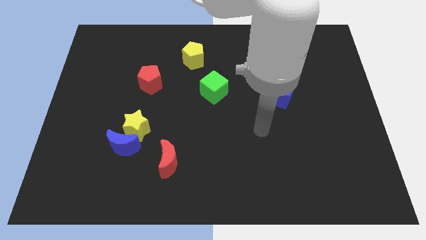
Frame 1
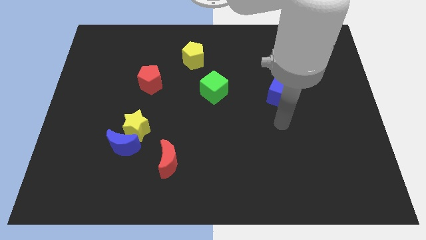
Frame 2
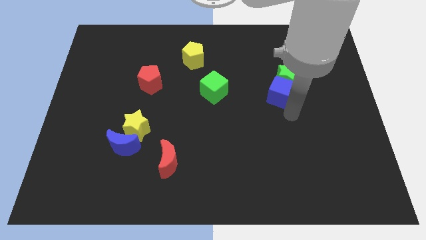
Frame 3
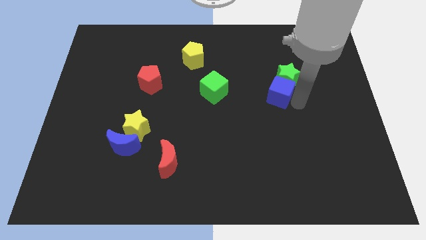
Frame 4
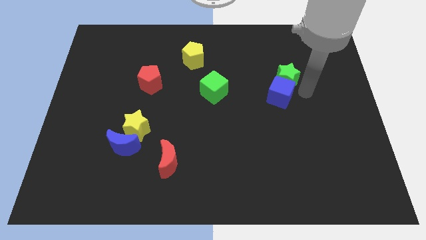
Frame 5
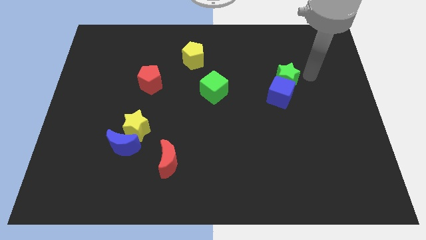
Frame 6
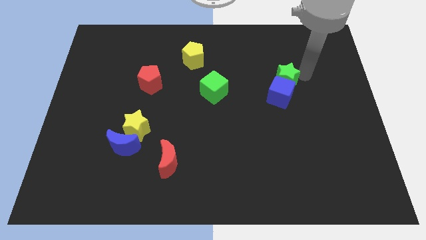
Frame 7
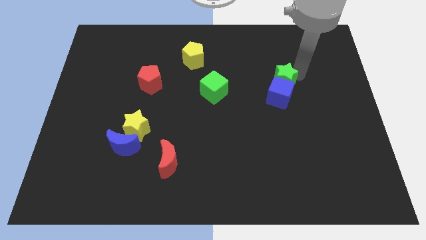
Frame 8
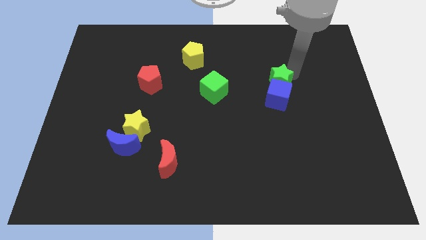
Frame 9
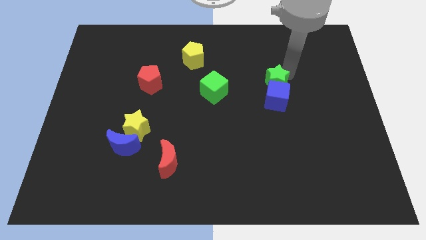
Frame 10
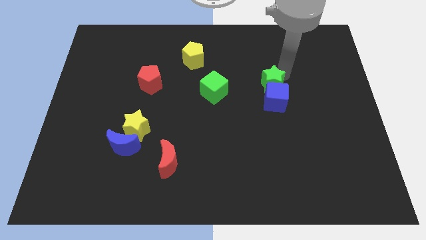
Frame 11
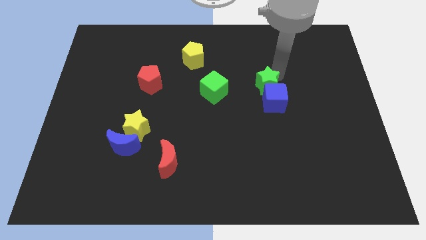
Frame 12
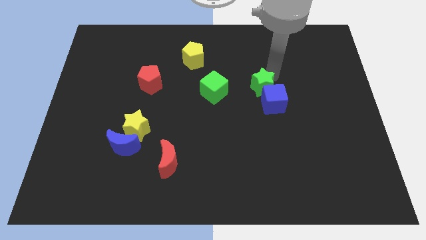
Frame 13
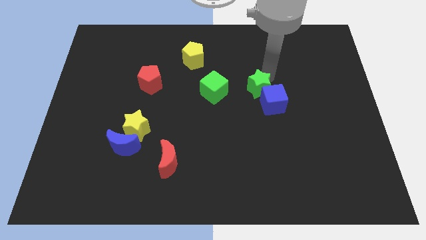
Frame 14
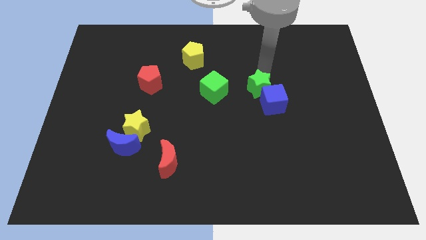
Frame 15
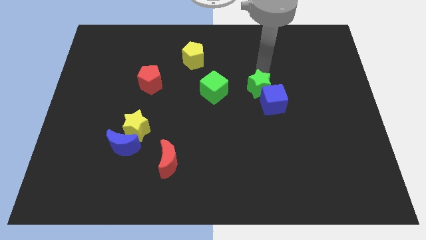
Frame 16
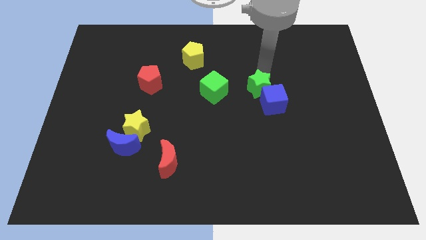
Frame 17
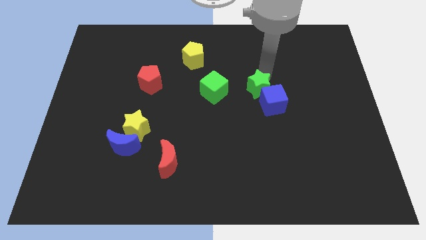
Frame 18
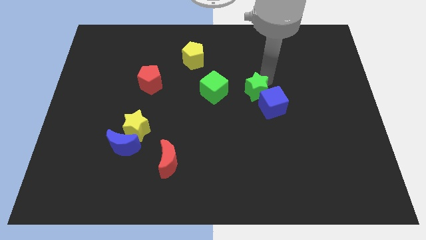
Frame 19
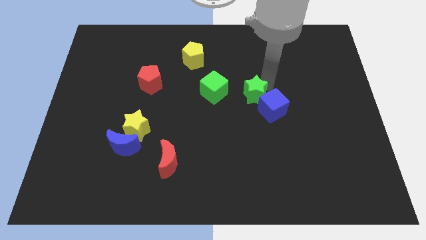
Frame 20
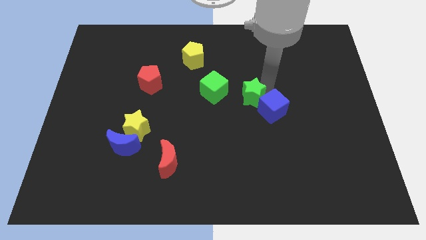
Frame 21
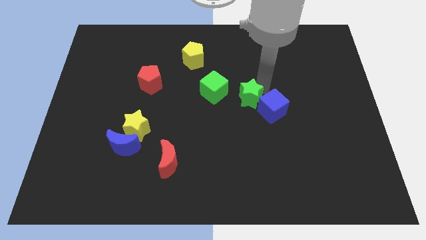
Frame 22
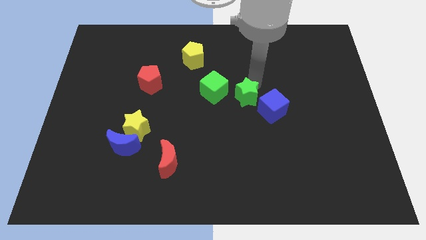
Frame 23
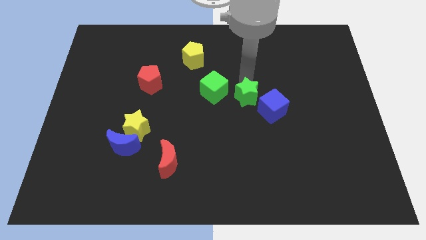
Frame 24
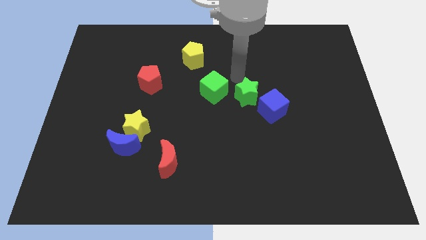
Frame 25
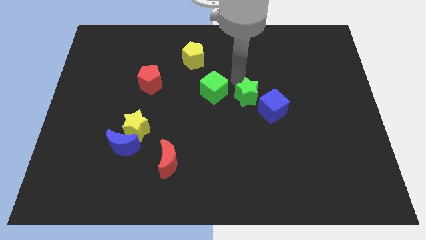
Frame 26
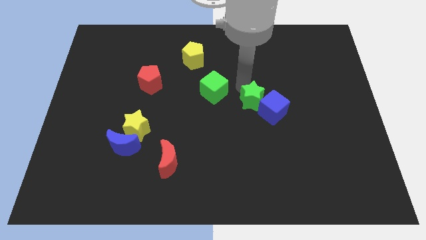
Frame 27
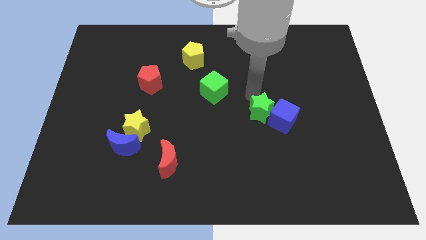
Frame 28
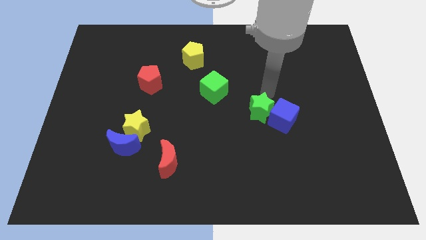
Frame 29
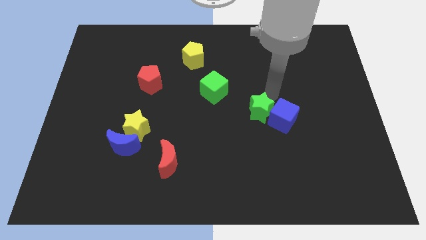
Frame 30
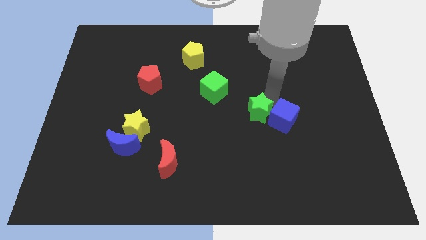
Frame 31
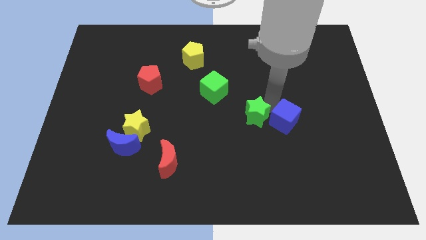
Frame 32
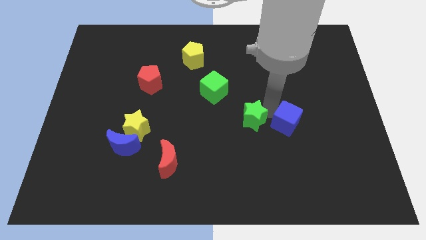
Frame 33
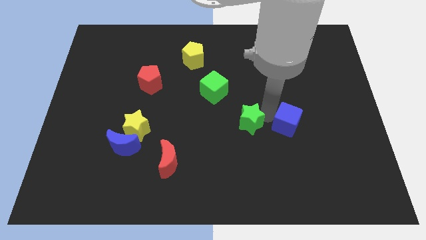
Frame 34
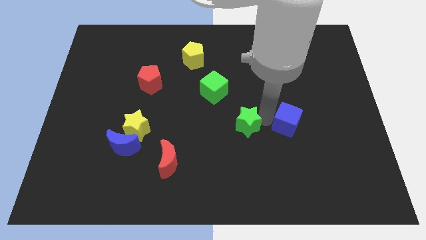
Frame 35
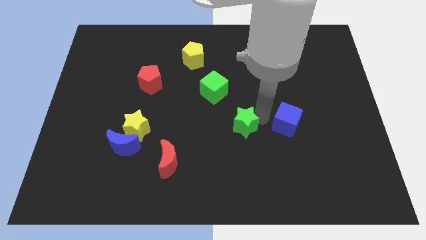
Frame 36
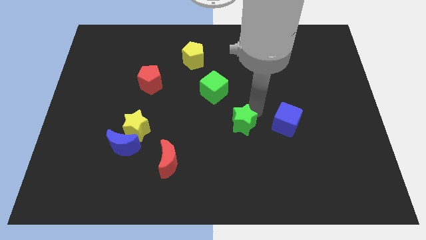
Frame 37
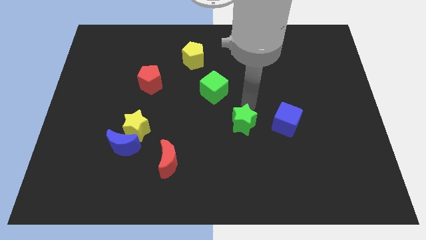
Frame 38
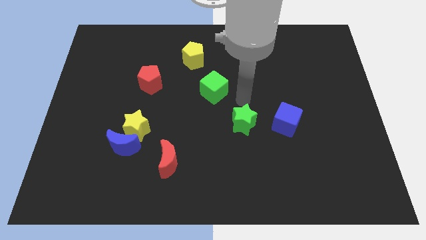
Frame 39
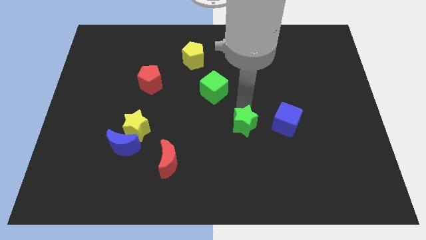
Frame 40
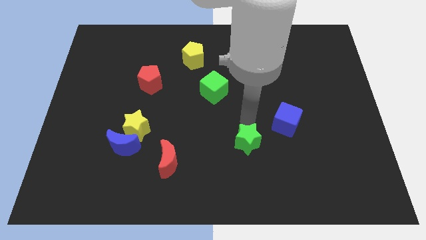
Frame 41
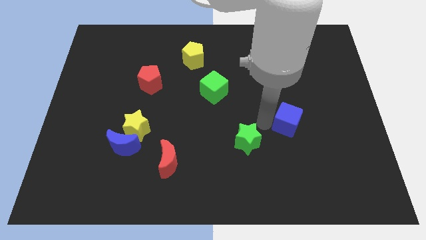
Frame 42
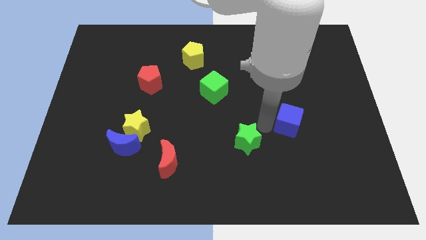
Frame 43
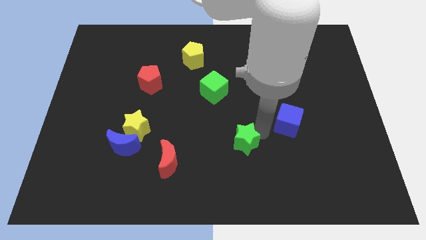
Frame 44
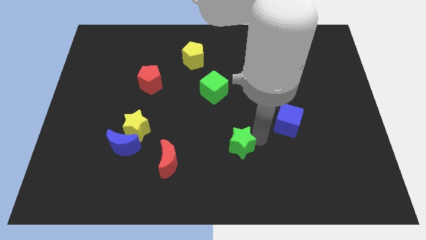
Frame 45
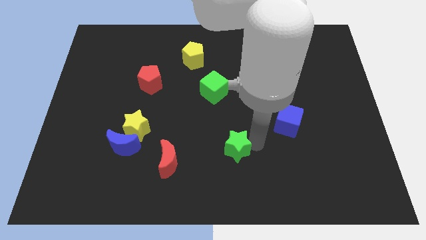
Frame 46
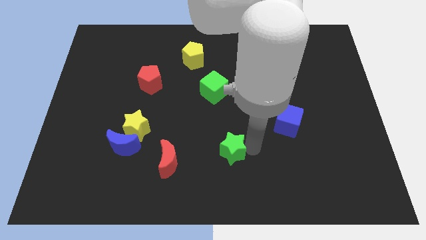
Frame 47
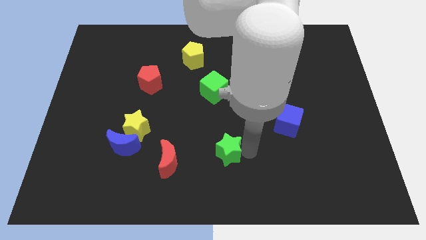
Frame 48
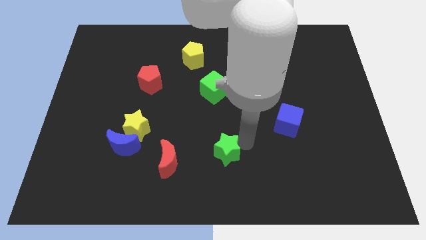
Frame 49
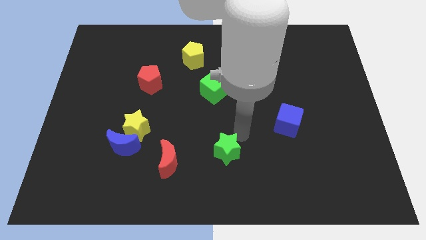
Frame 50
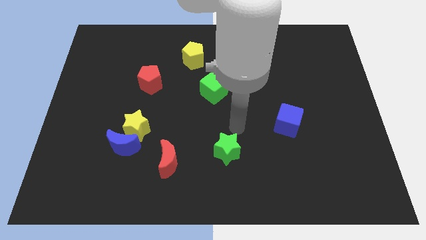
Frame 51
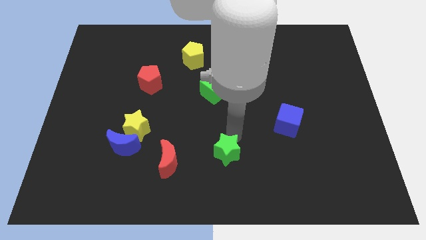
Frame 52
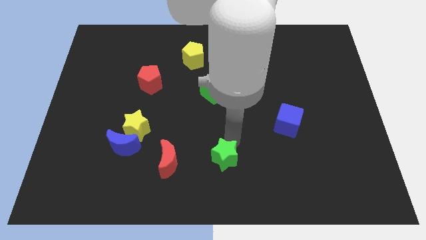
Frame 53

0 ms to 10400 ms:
push the green star to the bottom

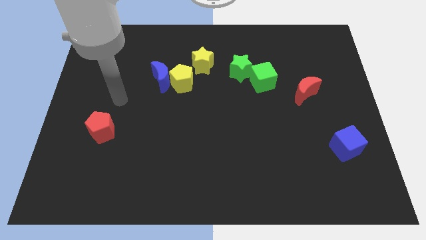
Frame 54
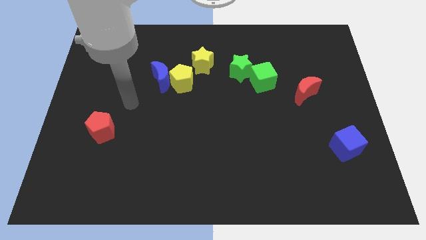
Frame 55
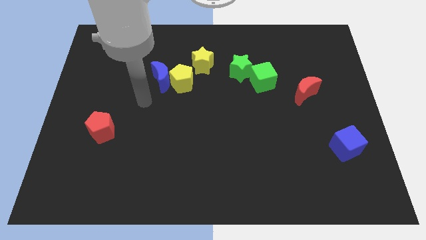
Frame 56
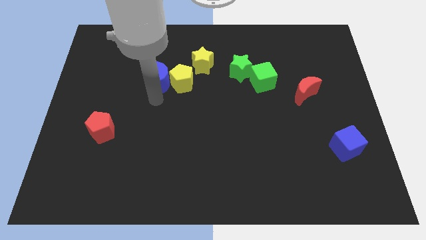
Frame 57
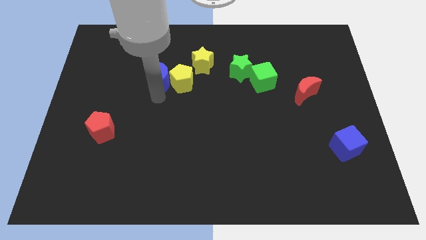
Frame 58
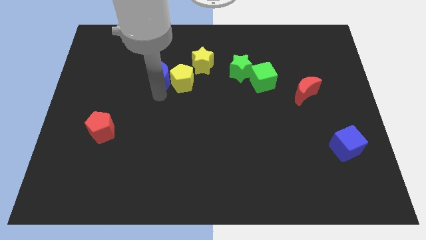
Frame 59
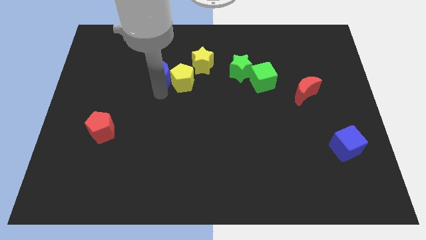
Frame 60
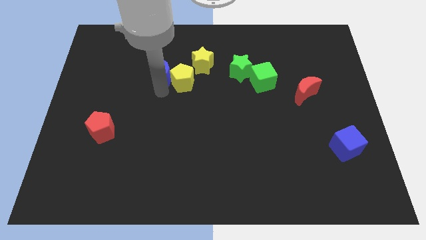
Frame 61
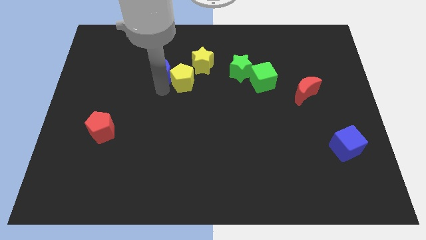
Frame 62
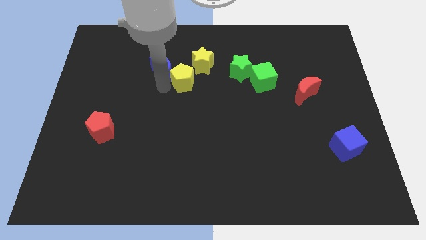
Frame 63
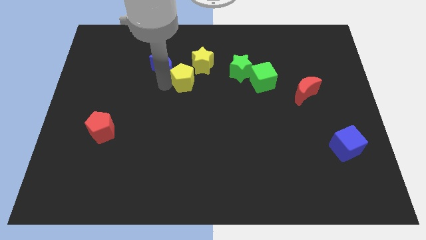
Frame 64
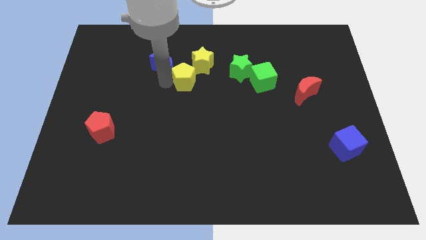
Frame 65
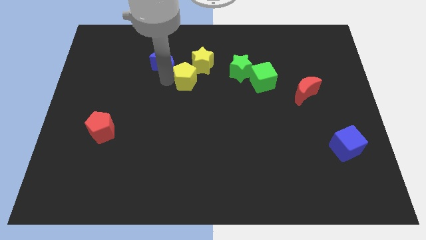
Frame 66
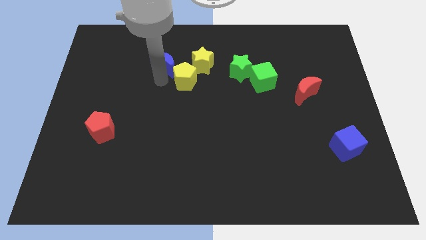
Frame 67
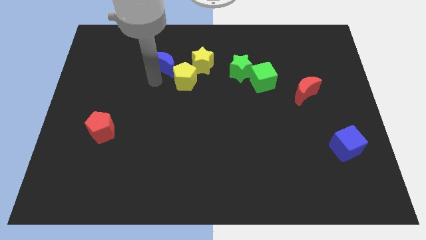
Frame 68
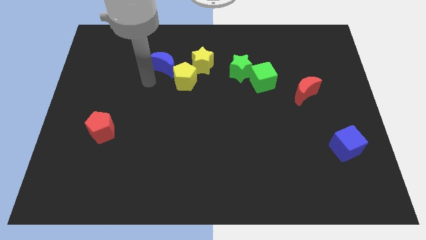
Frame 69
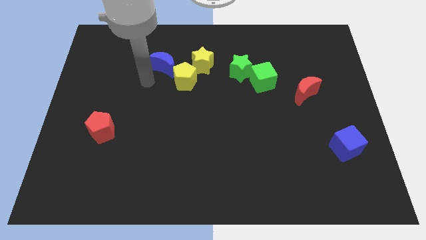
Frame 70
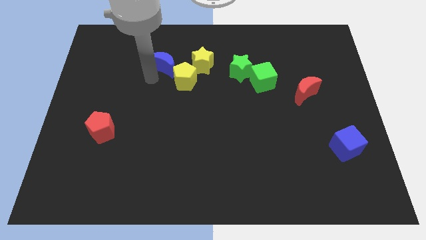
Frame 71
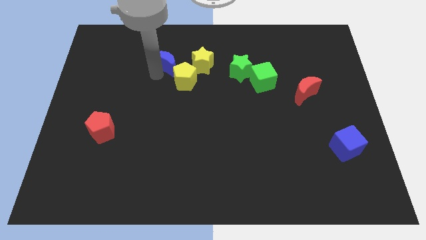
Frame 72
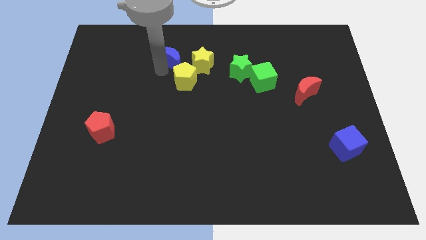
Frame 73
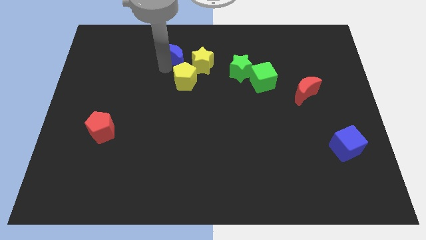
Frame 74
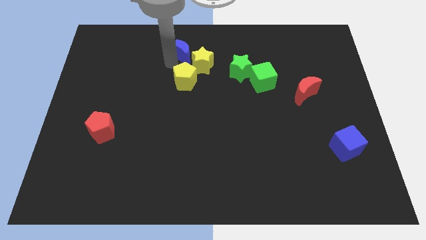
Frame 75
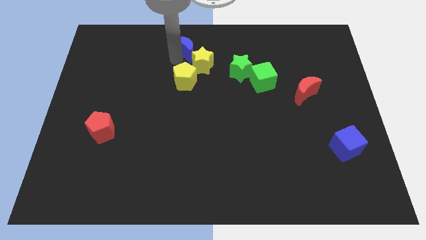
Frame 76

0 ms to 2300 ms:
move the blue moon to the top
